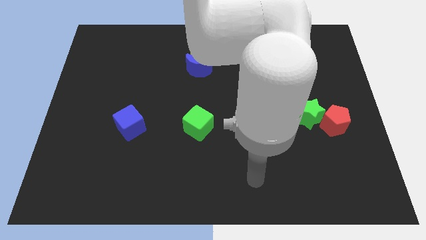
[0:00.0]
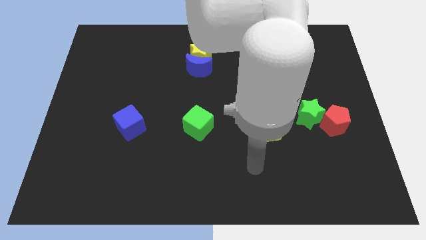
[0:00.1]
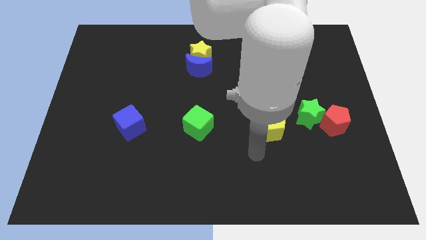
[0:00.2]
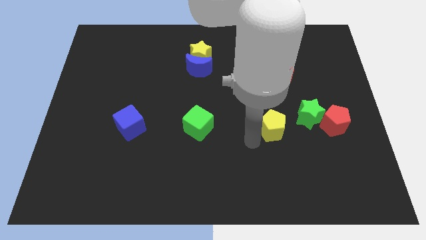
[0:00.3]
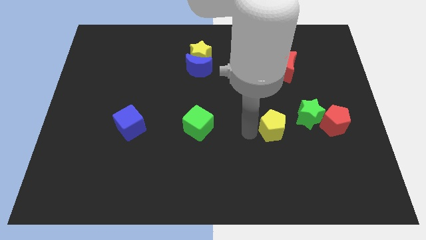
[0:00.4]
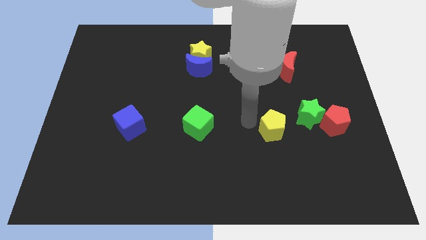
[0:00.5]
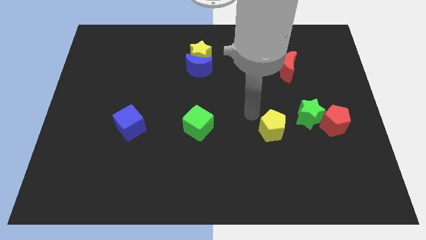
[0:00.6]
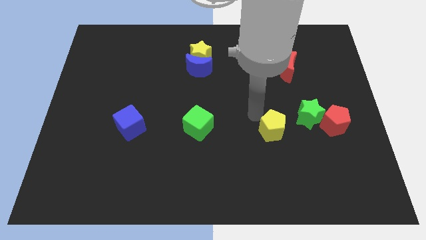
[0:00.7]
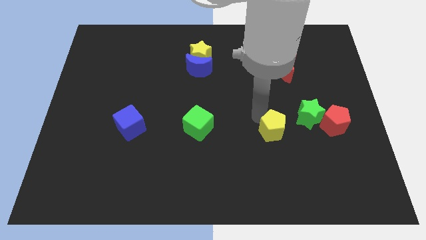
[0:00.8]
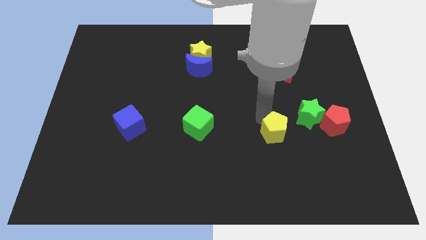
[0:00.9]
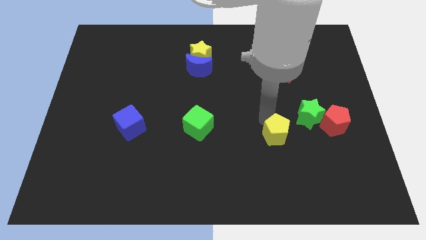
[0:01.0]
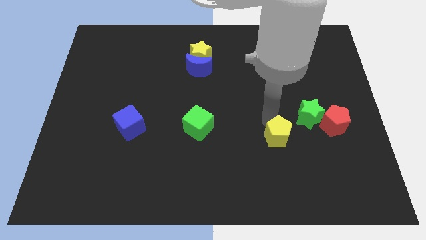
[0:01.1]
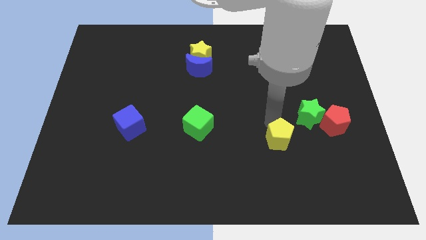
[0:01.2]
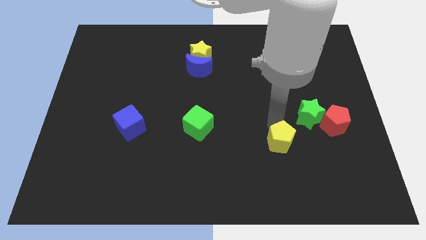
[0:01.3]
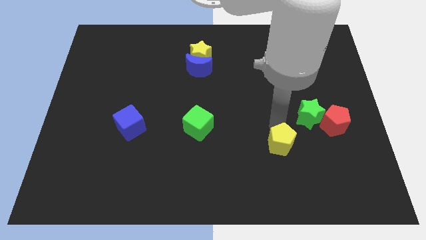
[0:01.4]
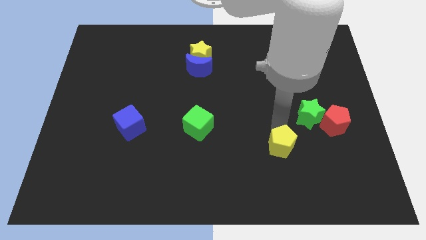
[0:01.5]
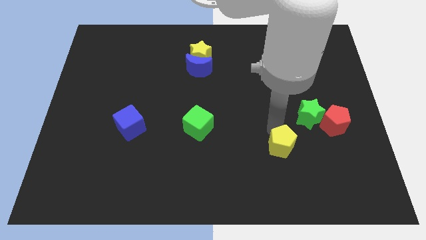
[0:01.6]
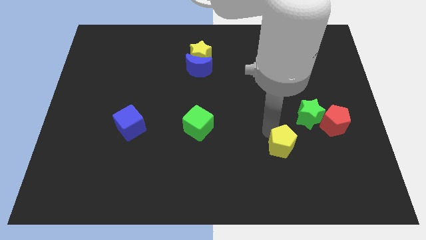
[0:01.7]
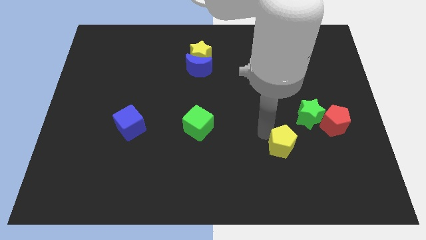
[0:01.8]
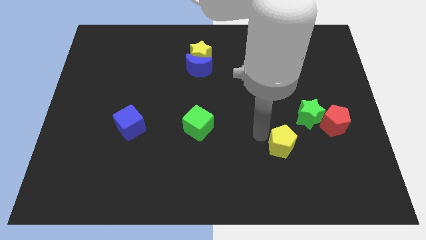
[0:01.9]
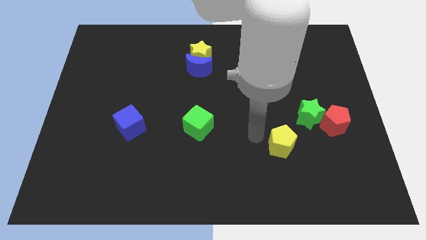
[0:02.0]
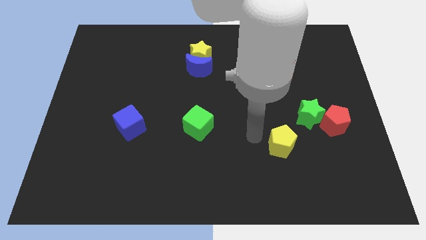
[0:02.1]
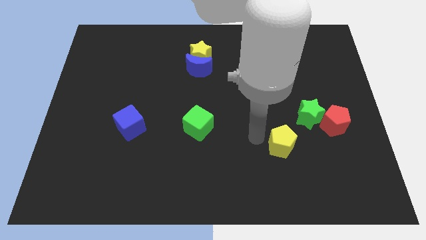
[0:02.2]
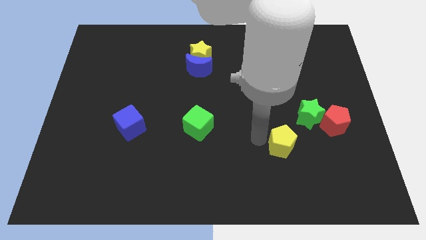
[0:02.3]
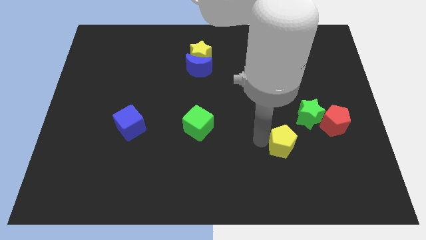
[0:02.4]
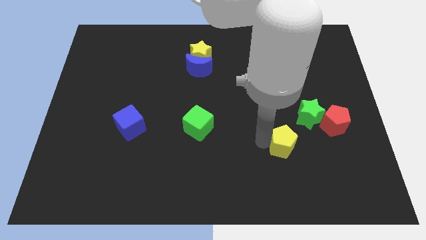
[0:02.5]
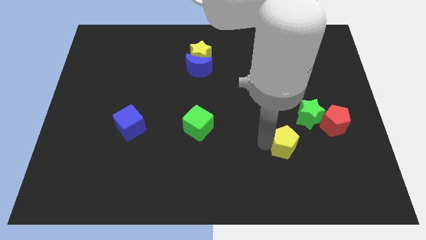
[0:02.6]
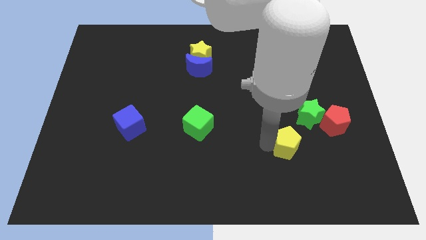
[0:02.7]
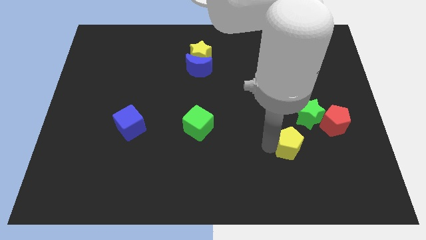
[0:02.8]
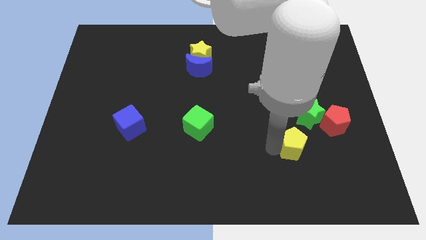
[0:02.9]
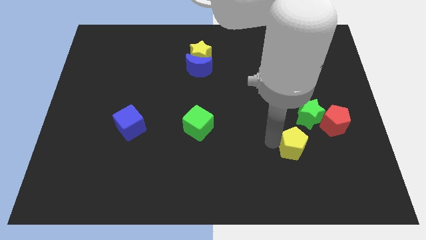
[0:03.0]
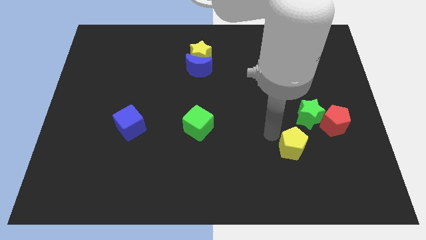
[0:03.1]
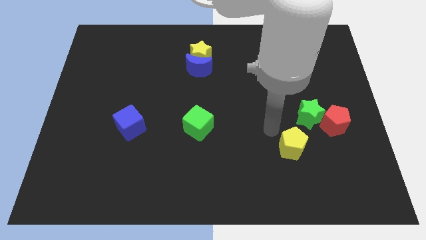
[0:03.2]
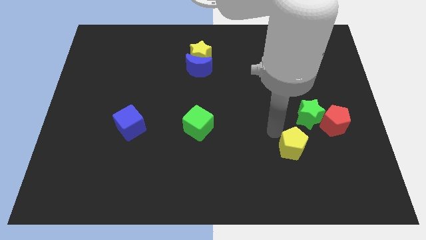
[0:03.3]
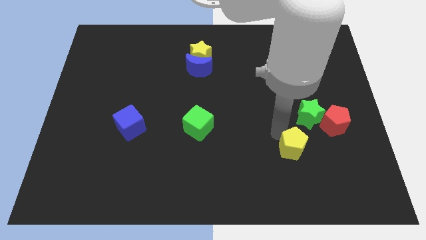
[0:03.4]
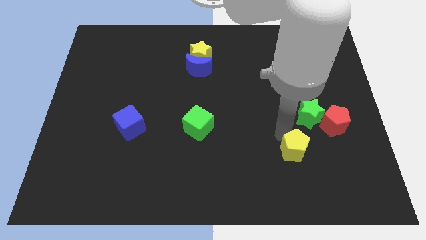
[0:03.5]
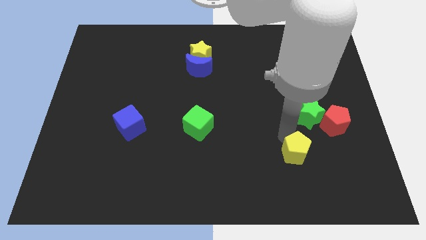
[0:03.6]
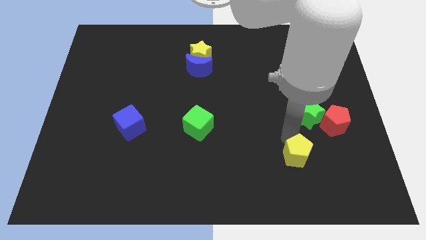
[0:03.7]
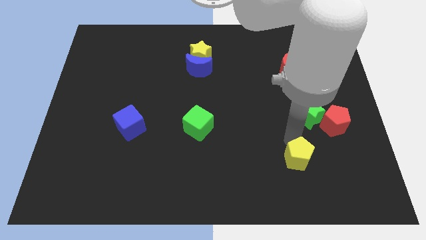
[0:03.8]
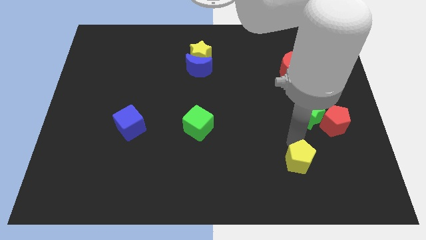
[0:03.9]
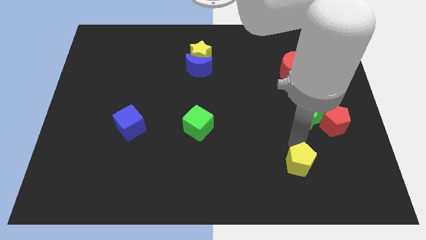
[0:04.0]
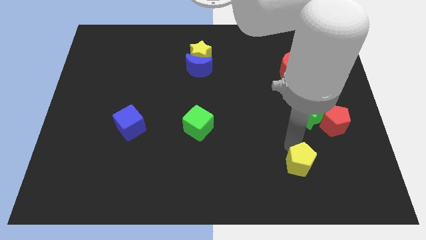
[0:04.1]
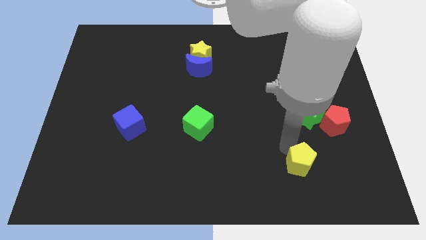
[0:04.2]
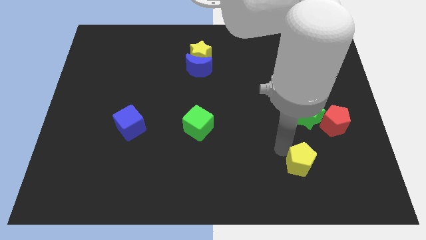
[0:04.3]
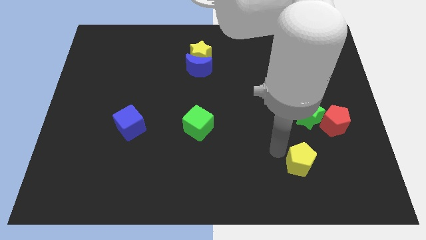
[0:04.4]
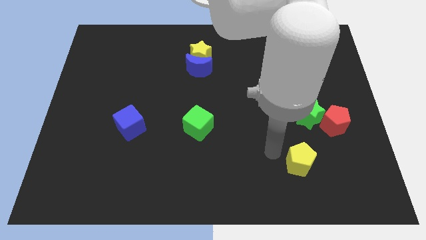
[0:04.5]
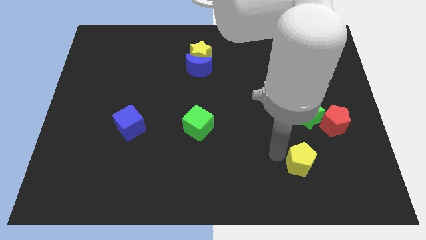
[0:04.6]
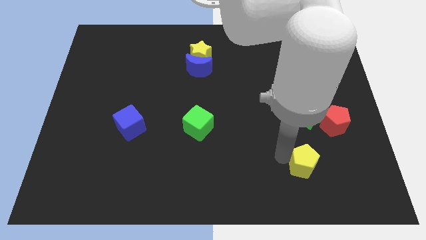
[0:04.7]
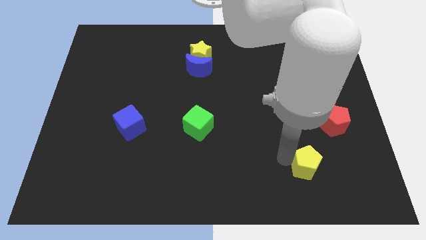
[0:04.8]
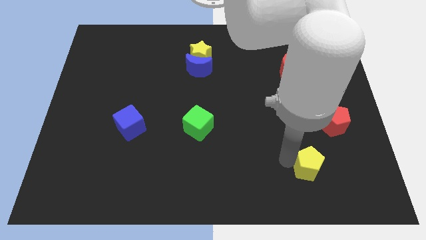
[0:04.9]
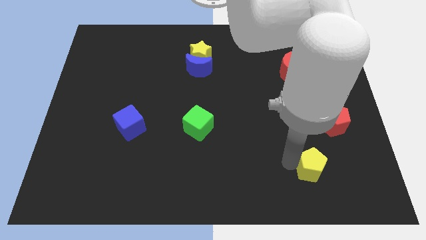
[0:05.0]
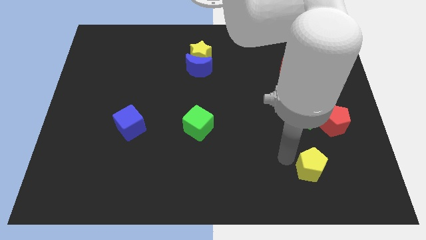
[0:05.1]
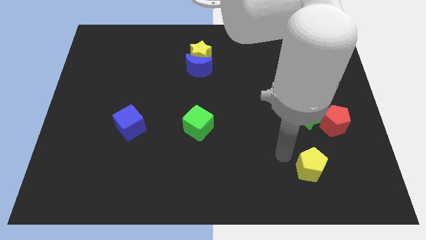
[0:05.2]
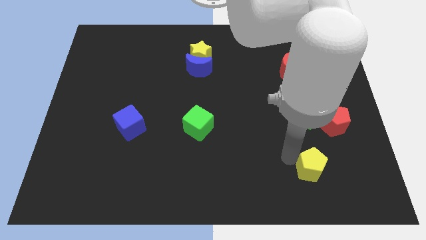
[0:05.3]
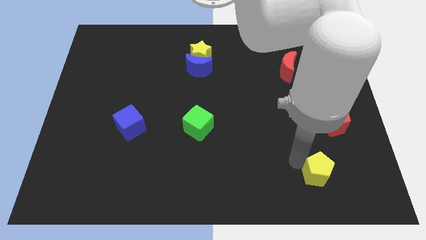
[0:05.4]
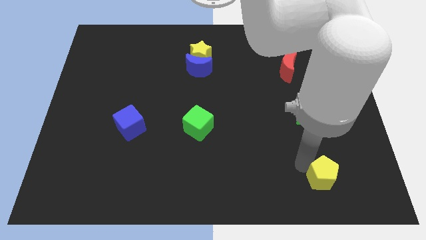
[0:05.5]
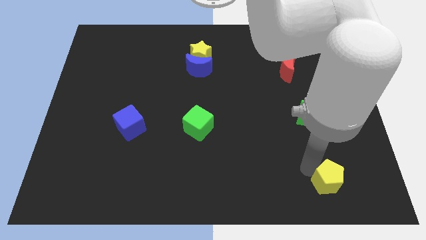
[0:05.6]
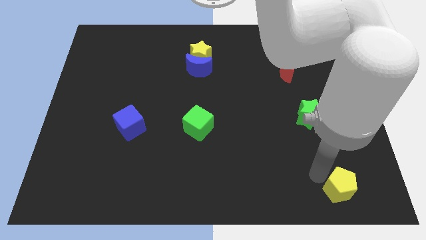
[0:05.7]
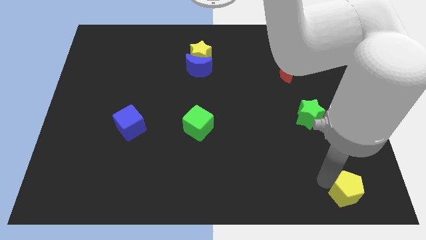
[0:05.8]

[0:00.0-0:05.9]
slide the yellow pentagon to the lower right corner

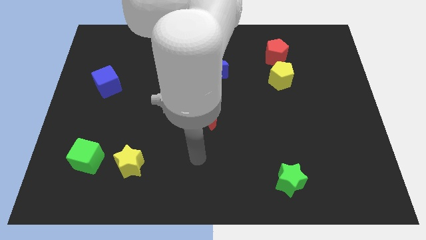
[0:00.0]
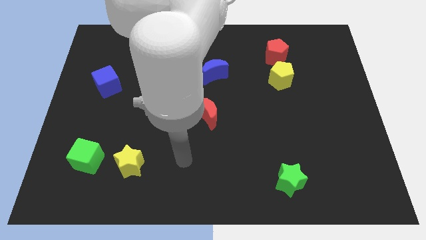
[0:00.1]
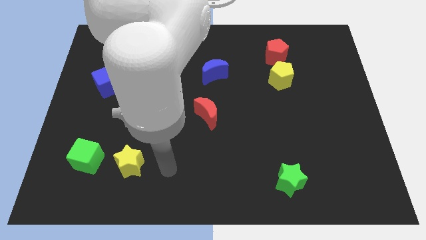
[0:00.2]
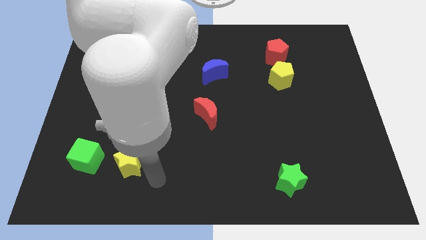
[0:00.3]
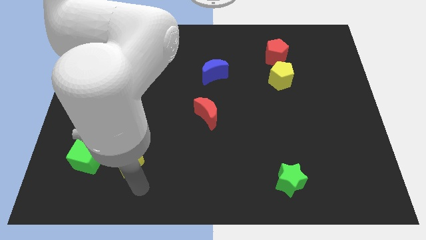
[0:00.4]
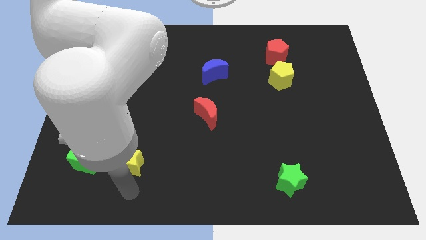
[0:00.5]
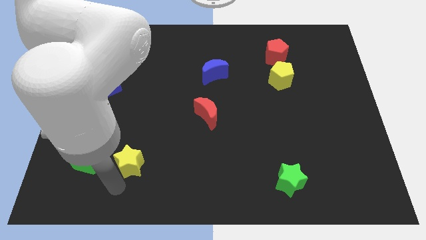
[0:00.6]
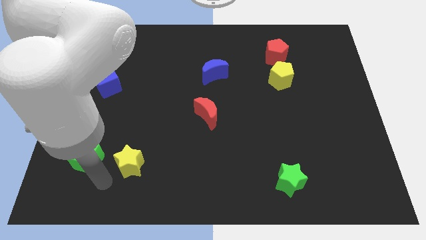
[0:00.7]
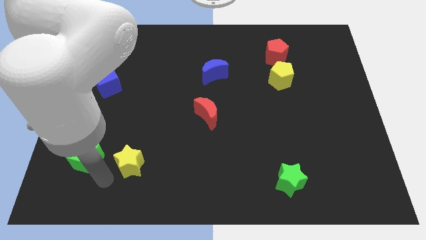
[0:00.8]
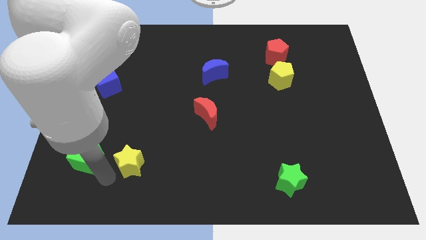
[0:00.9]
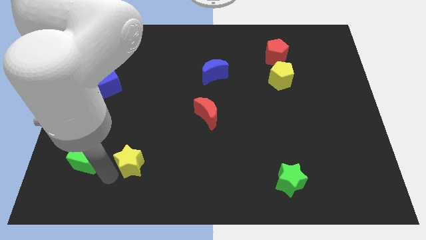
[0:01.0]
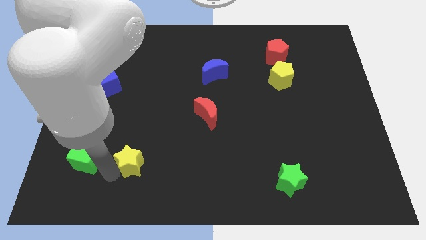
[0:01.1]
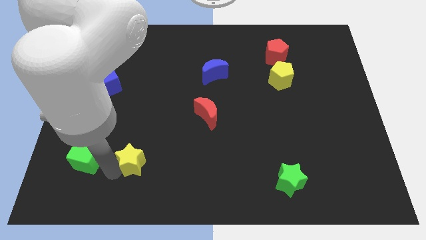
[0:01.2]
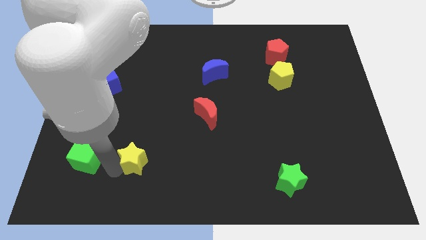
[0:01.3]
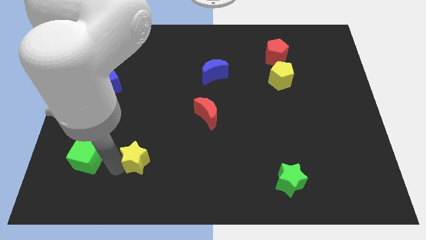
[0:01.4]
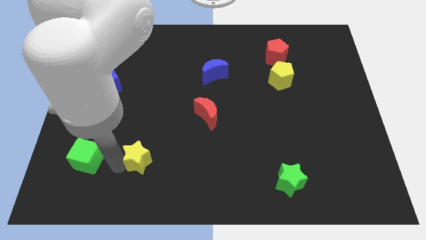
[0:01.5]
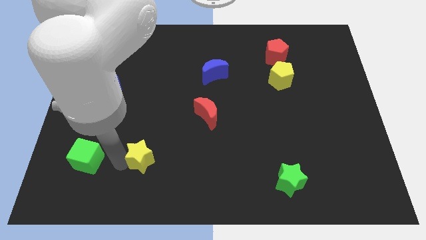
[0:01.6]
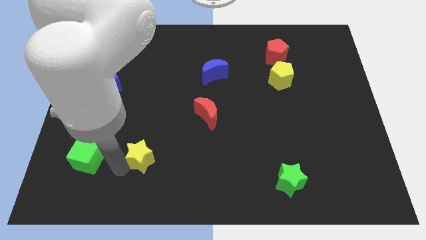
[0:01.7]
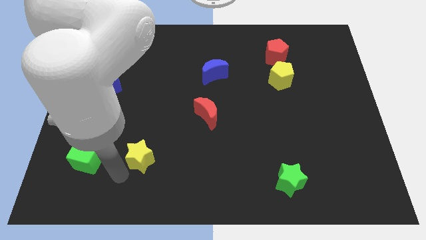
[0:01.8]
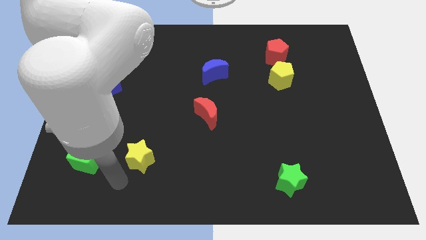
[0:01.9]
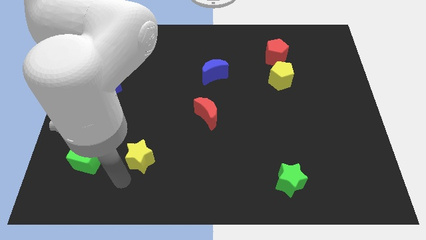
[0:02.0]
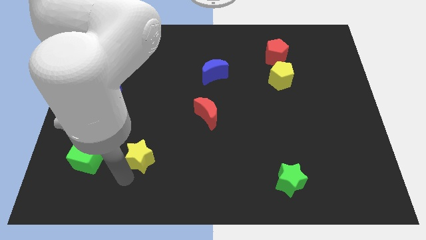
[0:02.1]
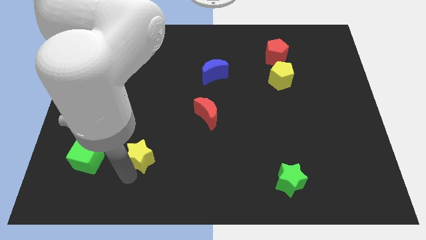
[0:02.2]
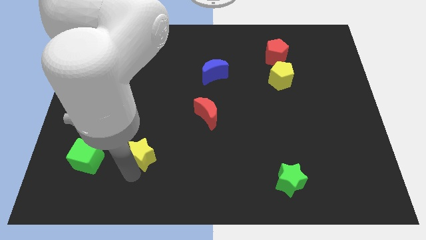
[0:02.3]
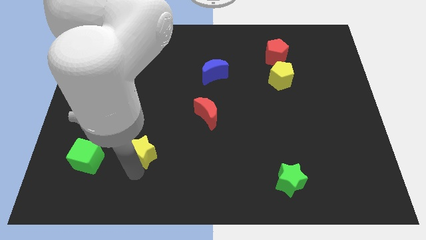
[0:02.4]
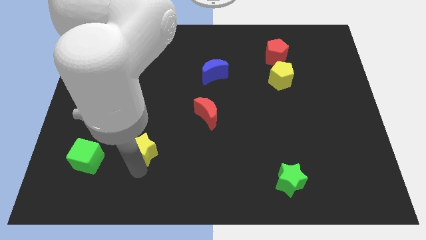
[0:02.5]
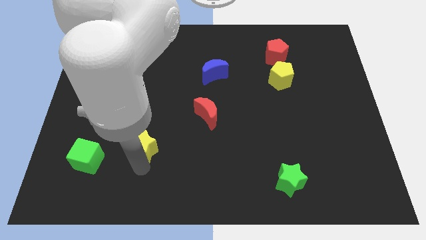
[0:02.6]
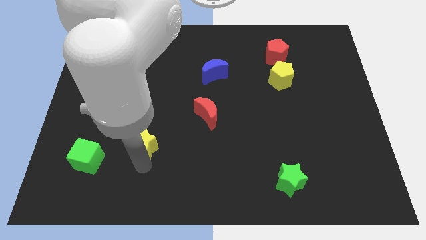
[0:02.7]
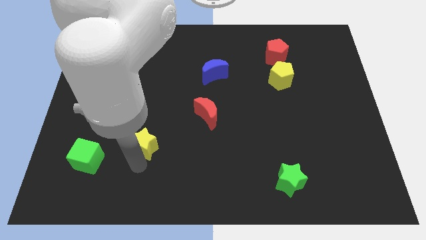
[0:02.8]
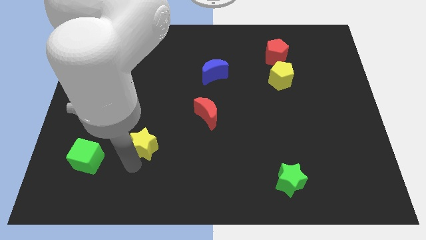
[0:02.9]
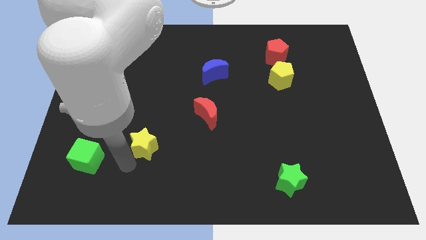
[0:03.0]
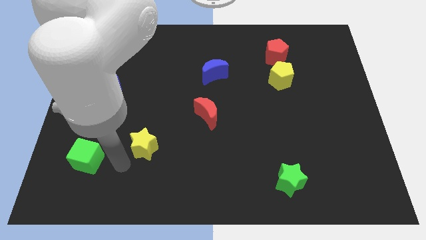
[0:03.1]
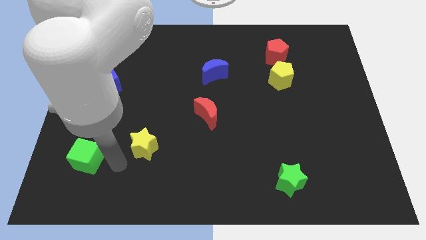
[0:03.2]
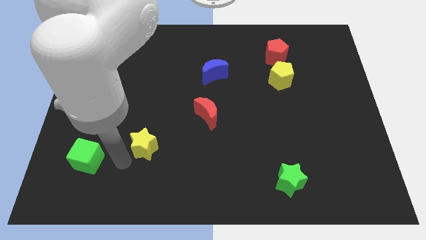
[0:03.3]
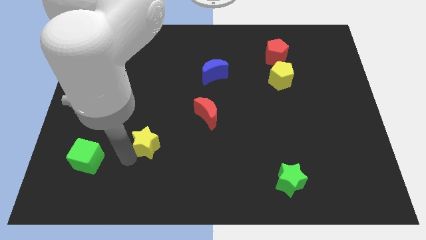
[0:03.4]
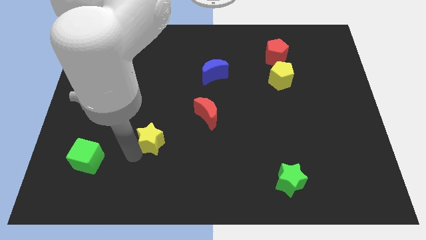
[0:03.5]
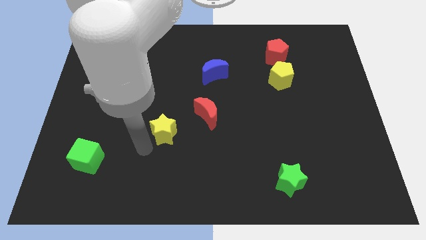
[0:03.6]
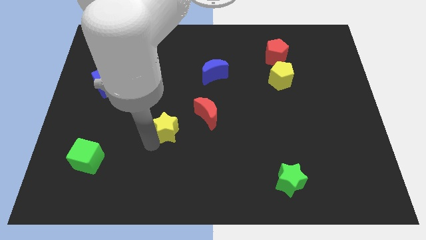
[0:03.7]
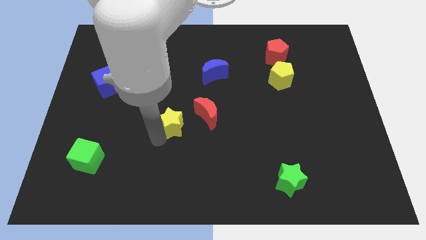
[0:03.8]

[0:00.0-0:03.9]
slide the yellow star to the center of the board
